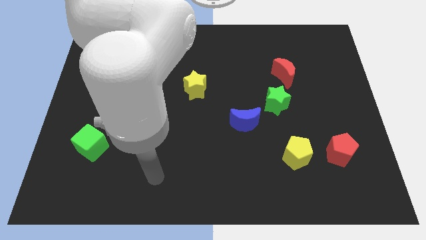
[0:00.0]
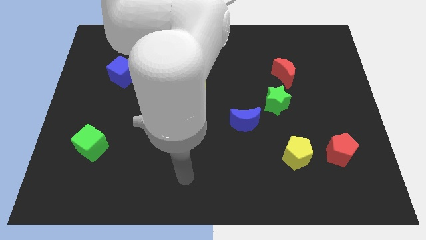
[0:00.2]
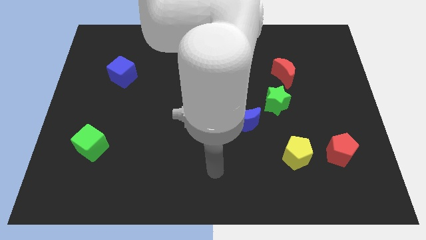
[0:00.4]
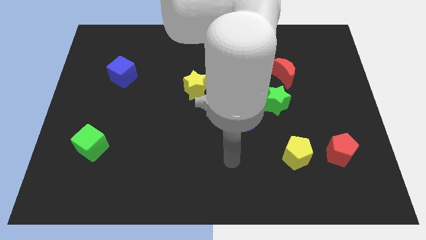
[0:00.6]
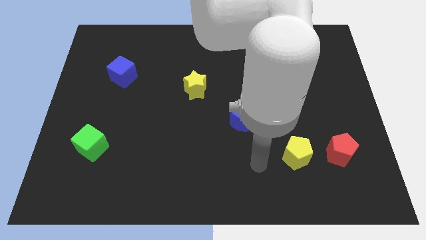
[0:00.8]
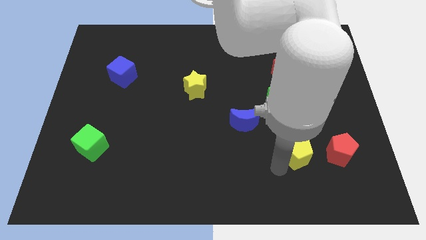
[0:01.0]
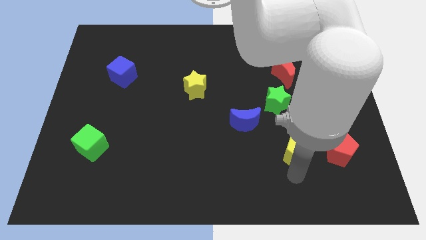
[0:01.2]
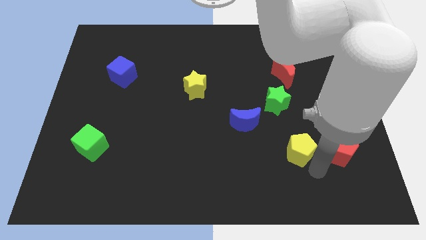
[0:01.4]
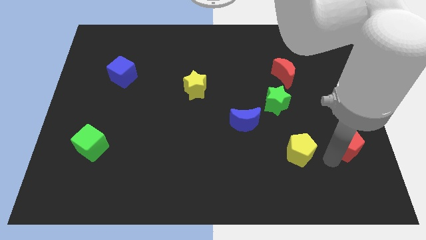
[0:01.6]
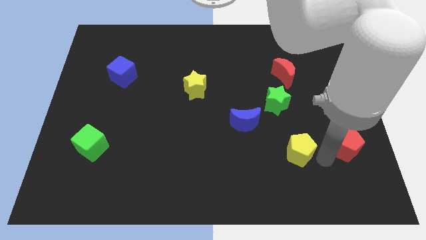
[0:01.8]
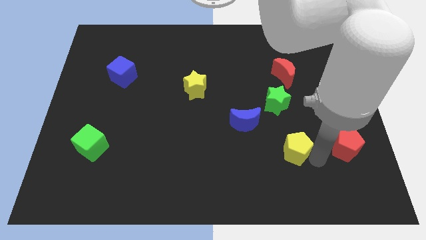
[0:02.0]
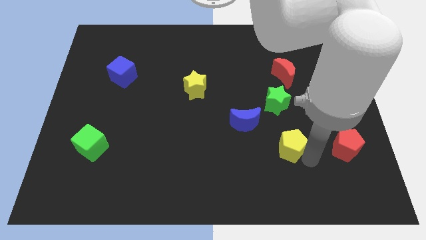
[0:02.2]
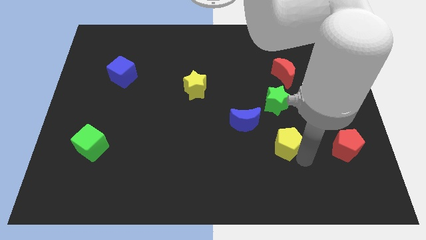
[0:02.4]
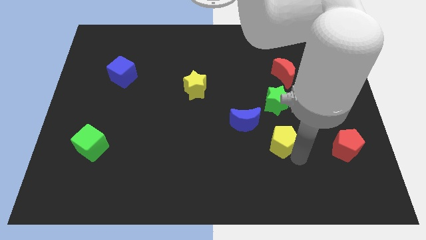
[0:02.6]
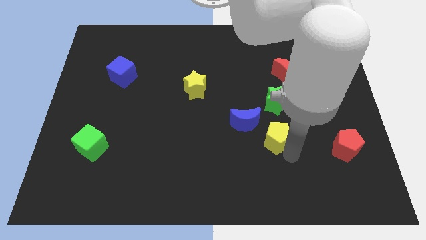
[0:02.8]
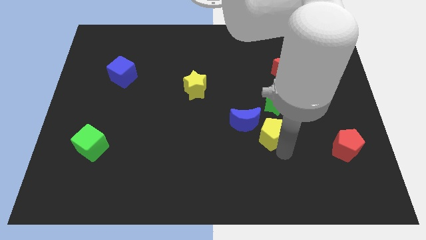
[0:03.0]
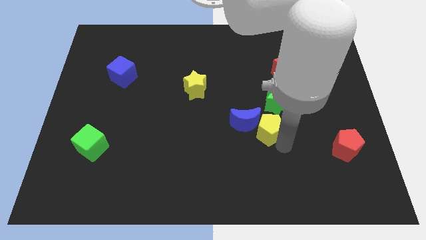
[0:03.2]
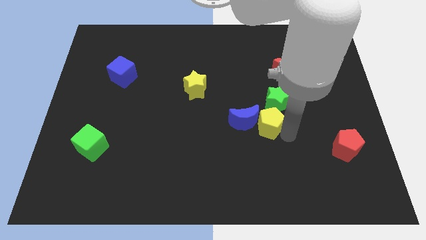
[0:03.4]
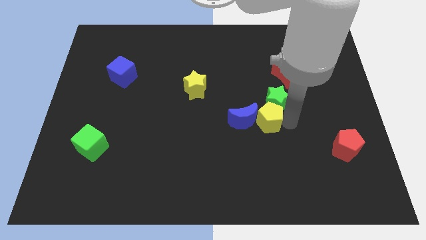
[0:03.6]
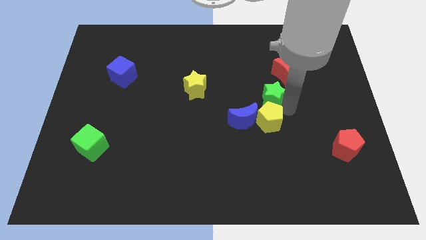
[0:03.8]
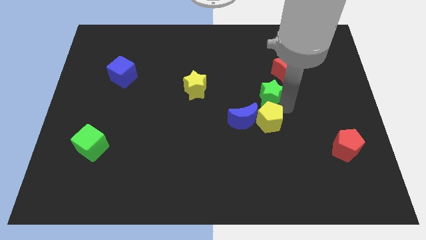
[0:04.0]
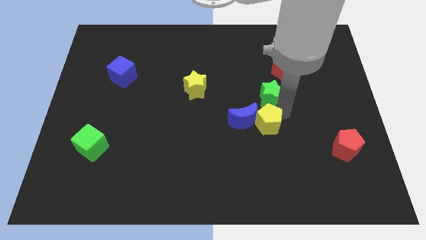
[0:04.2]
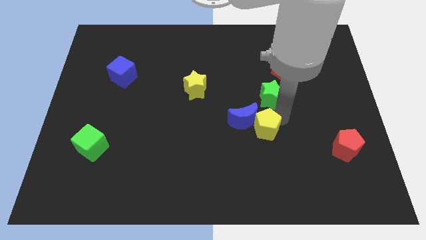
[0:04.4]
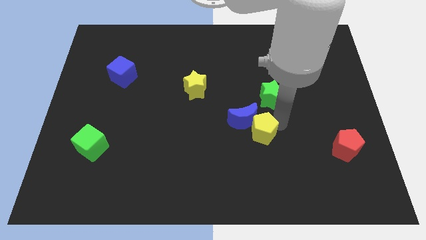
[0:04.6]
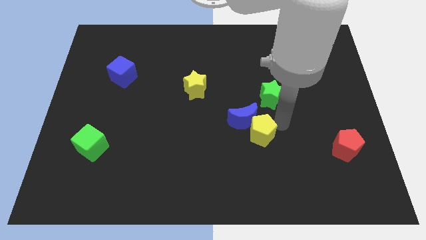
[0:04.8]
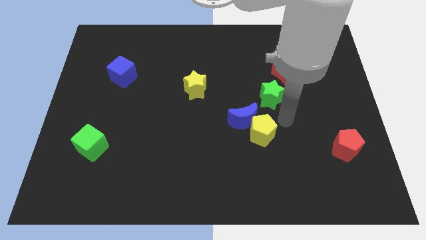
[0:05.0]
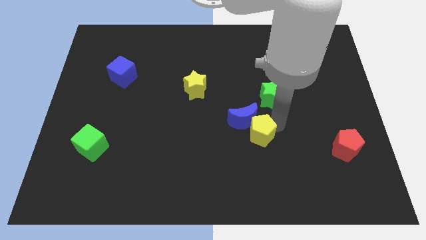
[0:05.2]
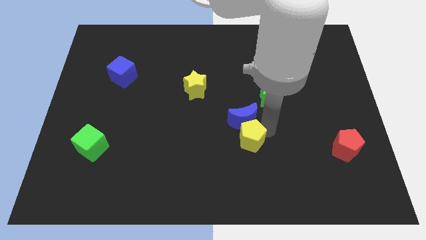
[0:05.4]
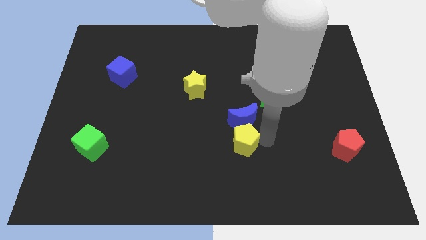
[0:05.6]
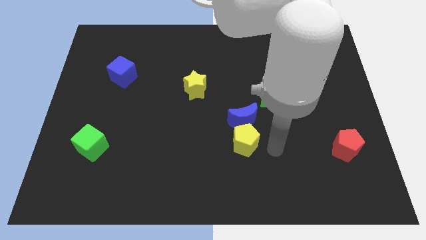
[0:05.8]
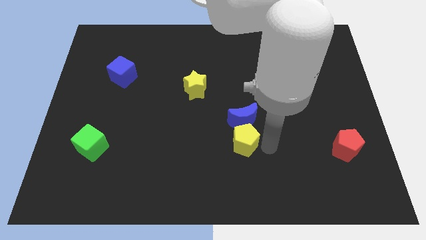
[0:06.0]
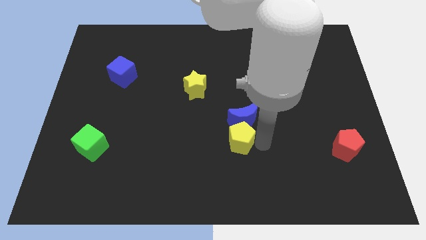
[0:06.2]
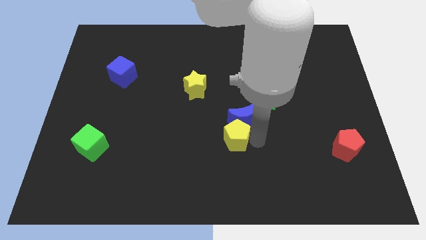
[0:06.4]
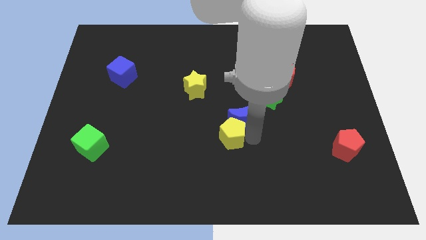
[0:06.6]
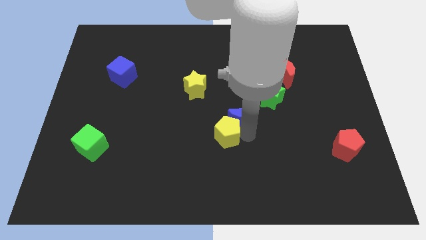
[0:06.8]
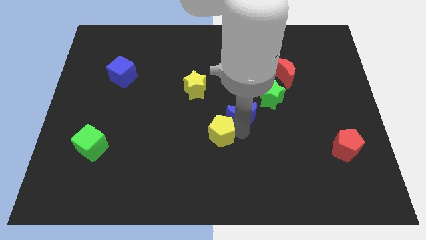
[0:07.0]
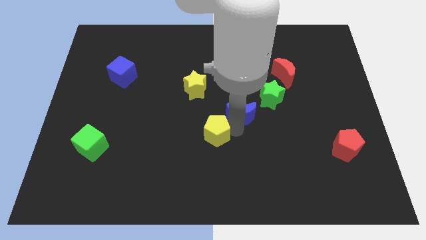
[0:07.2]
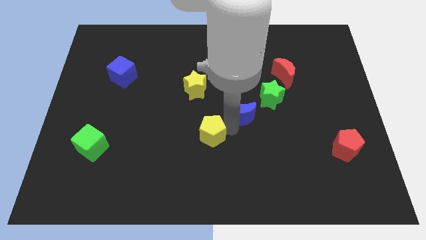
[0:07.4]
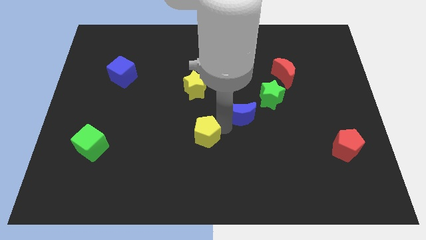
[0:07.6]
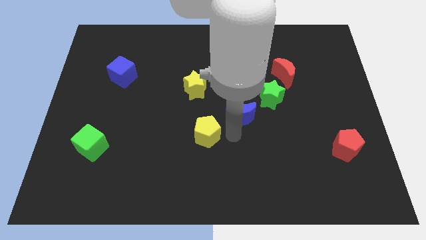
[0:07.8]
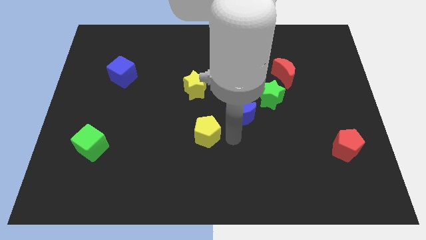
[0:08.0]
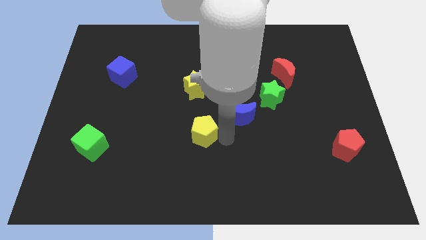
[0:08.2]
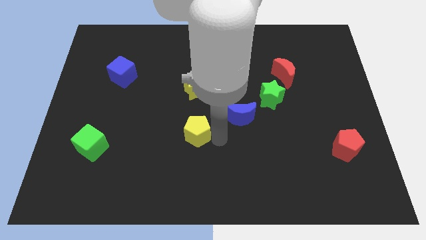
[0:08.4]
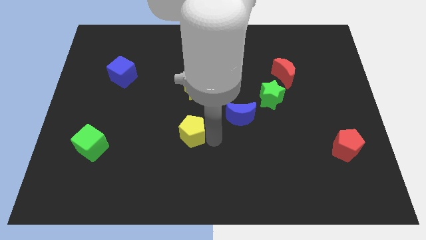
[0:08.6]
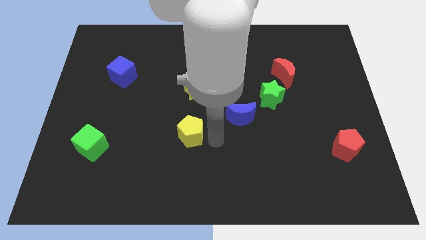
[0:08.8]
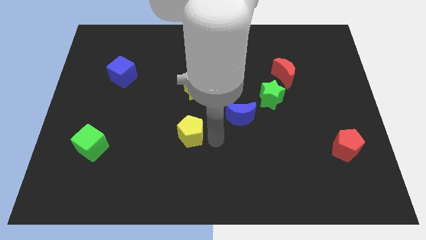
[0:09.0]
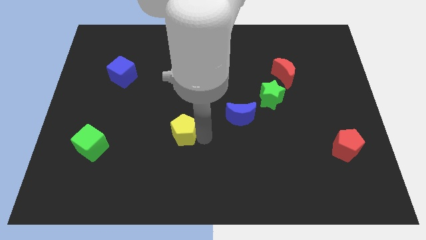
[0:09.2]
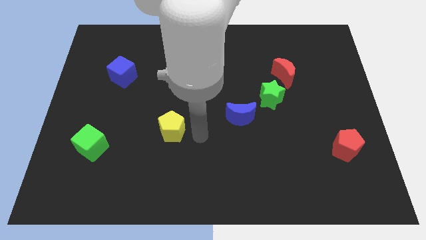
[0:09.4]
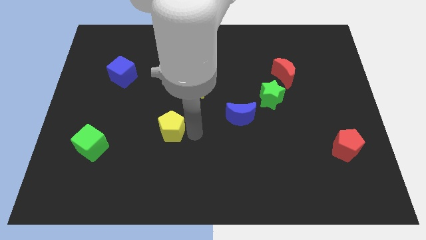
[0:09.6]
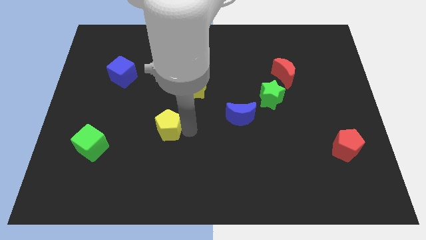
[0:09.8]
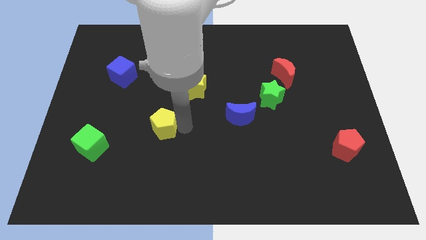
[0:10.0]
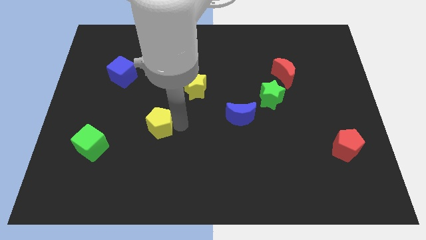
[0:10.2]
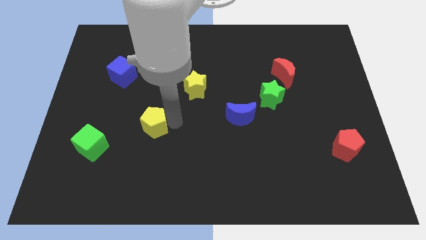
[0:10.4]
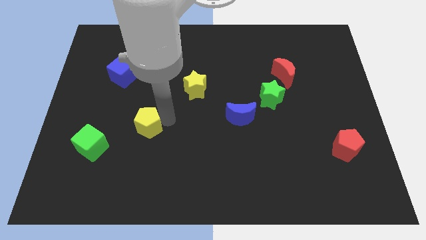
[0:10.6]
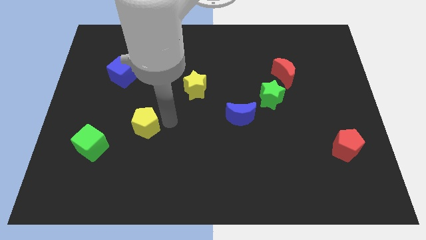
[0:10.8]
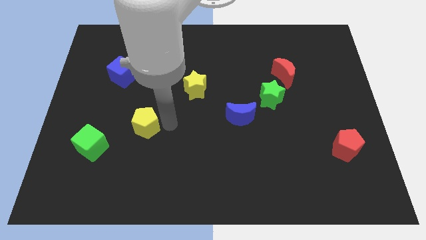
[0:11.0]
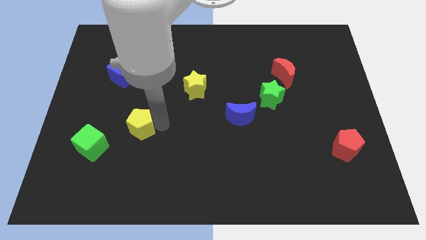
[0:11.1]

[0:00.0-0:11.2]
put the yellow pentagon to the top right side of the green cube

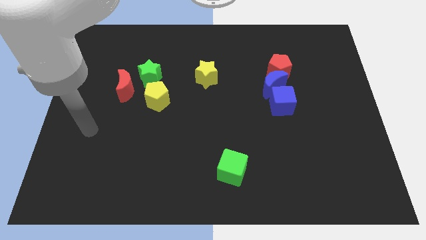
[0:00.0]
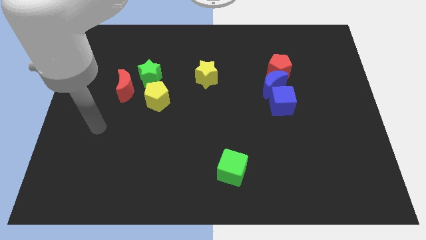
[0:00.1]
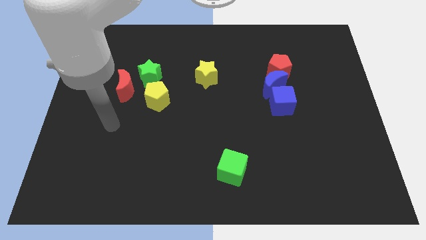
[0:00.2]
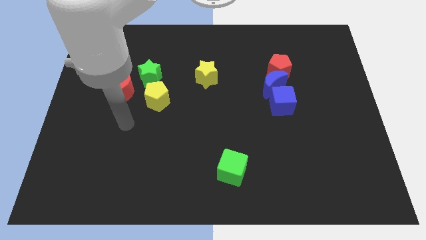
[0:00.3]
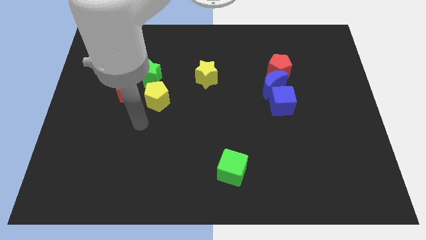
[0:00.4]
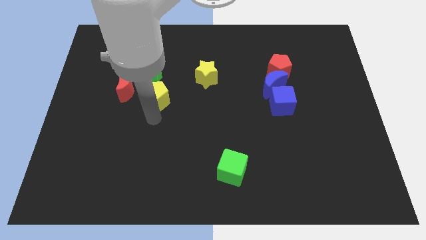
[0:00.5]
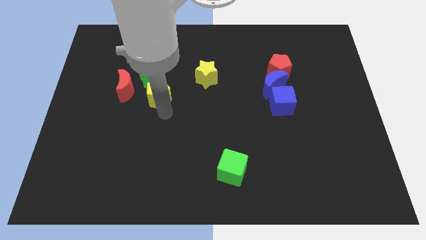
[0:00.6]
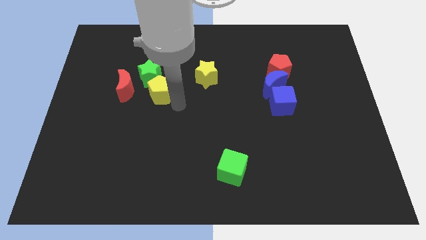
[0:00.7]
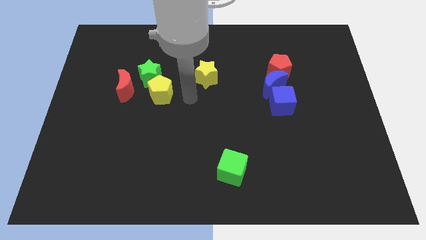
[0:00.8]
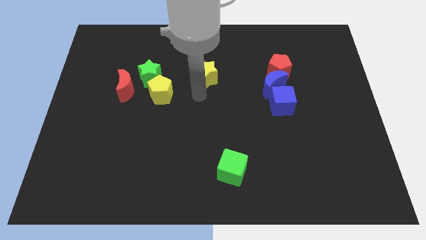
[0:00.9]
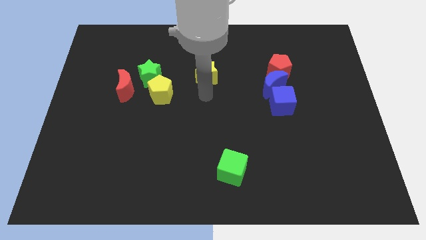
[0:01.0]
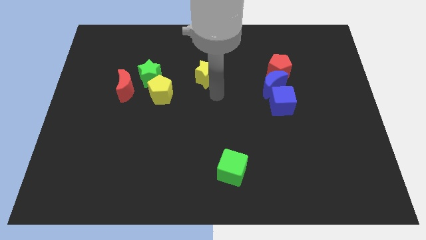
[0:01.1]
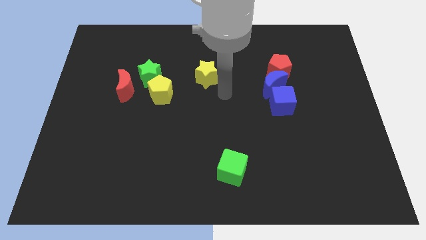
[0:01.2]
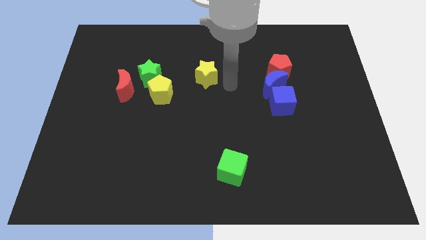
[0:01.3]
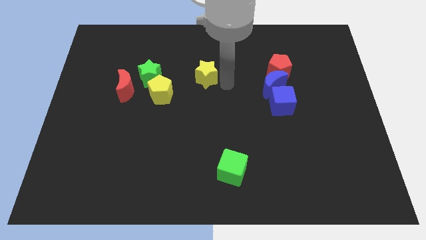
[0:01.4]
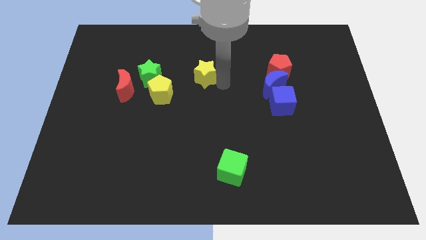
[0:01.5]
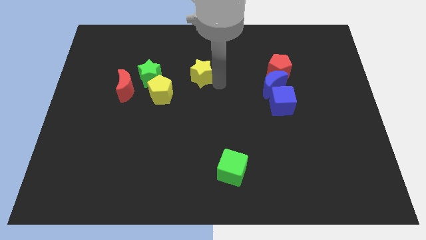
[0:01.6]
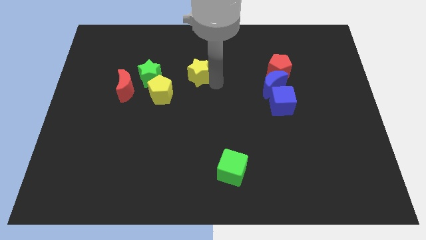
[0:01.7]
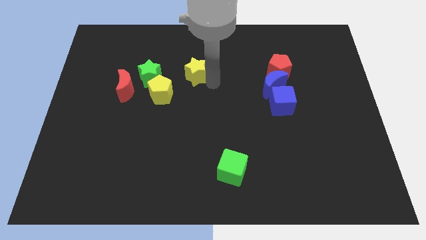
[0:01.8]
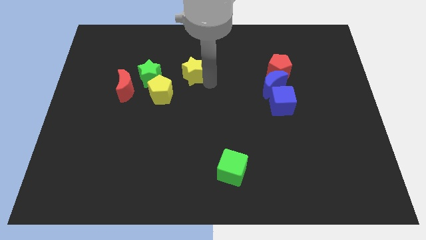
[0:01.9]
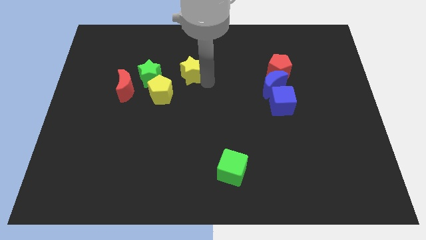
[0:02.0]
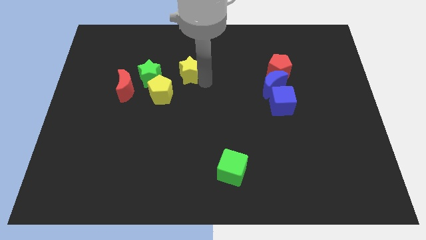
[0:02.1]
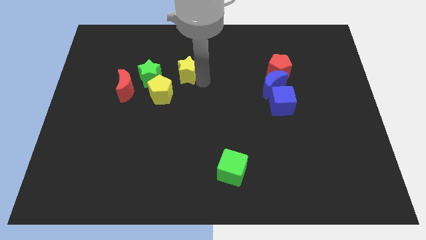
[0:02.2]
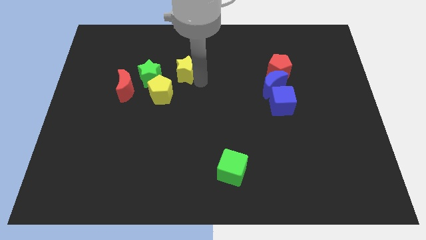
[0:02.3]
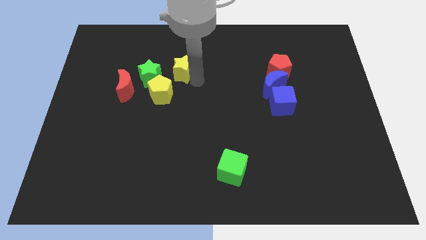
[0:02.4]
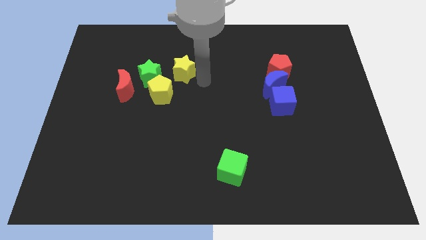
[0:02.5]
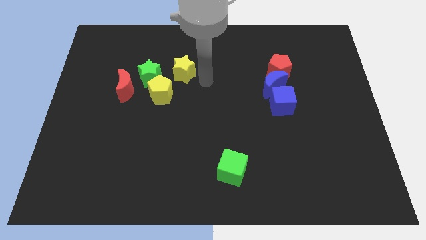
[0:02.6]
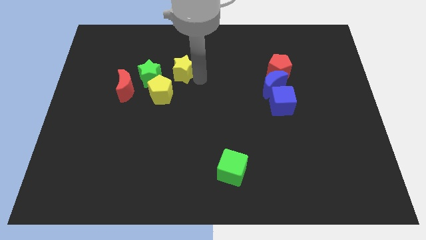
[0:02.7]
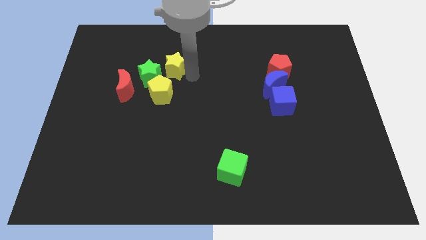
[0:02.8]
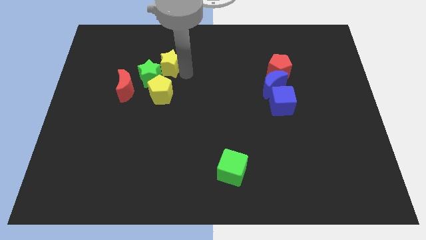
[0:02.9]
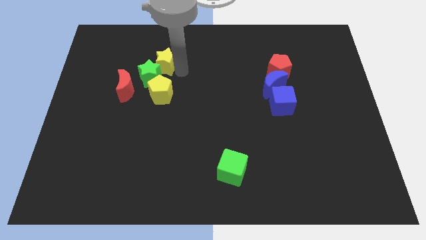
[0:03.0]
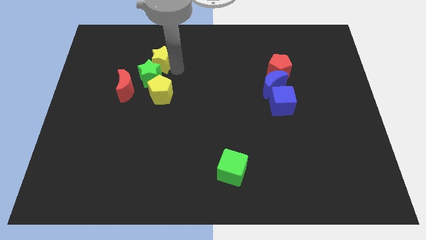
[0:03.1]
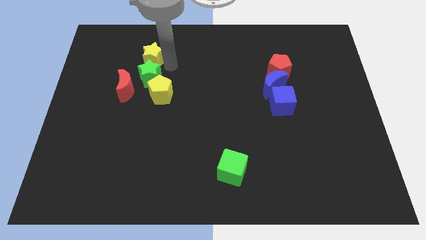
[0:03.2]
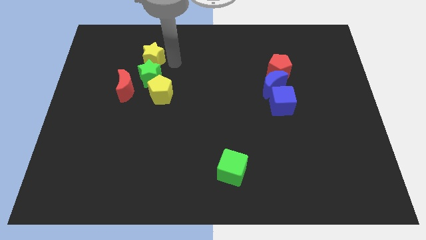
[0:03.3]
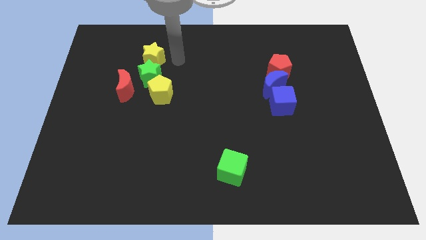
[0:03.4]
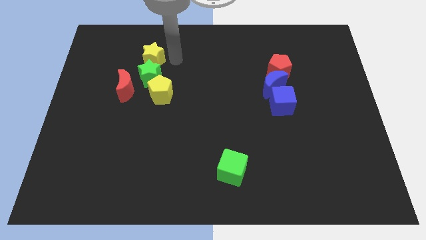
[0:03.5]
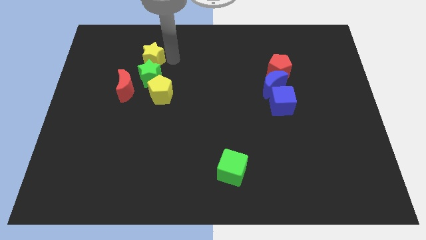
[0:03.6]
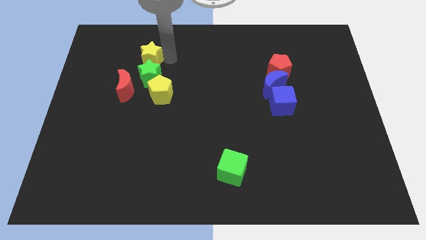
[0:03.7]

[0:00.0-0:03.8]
put the yellow star to the top of the red moon
